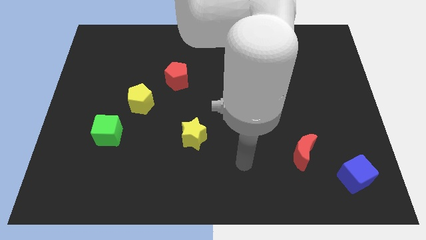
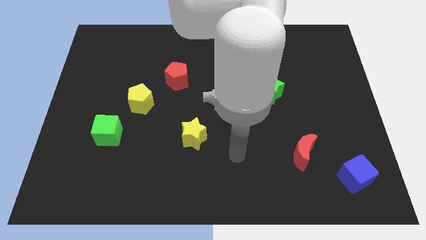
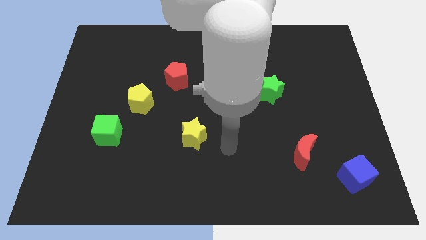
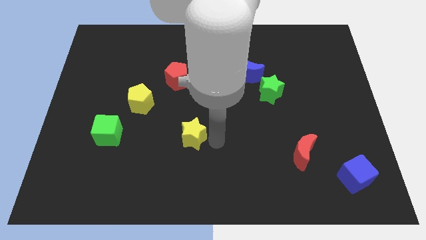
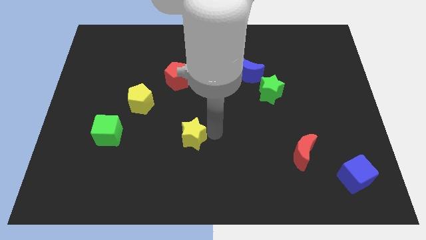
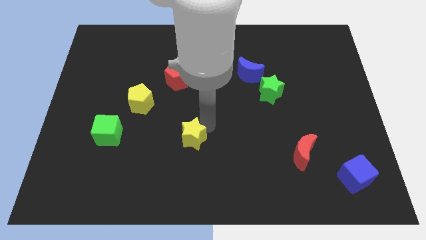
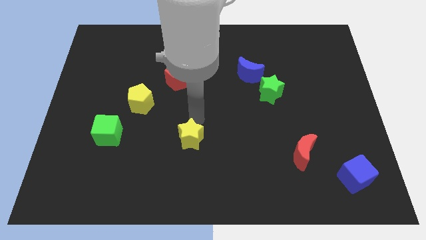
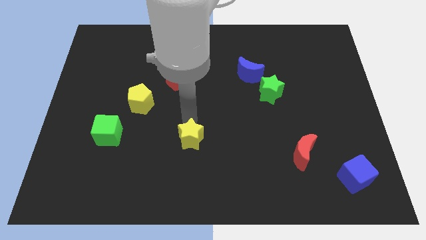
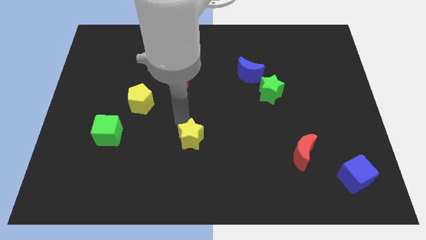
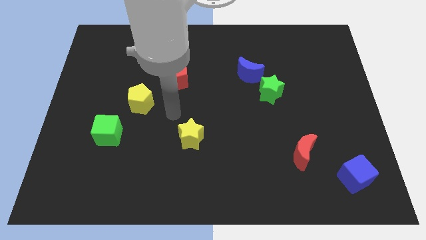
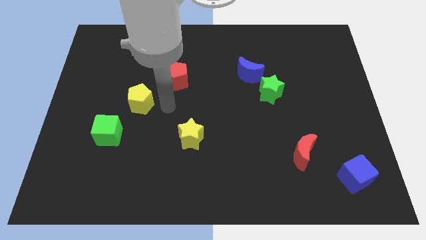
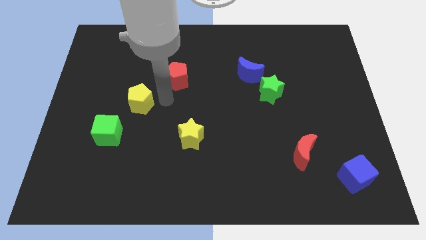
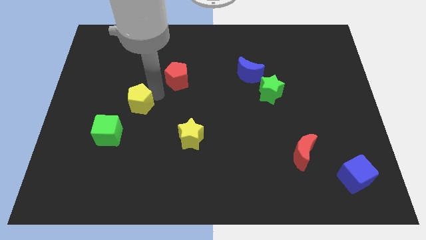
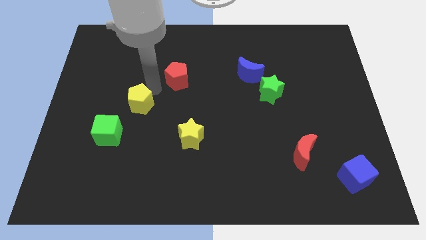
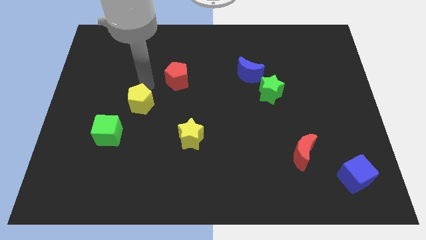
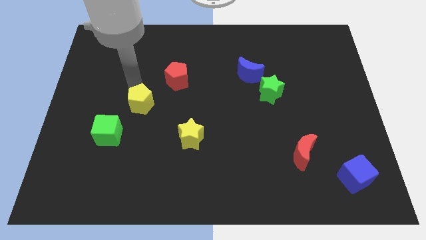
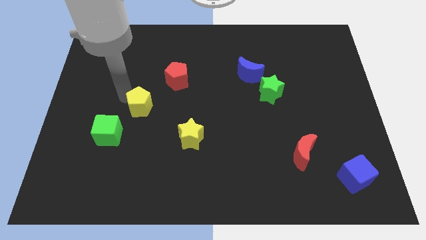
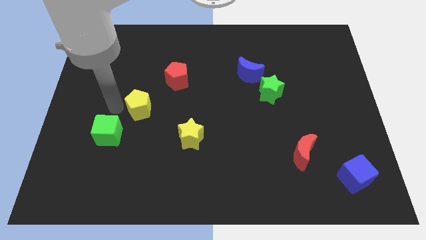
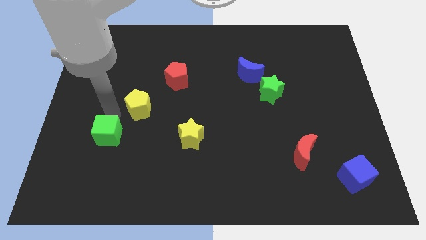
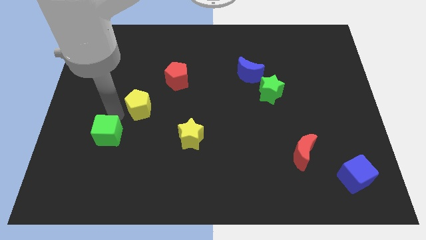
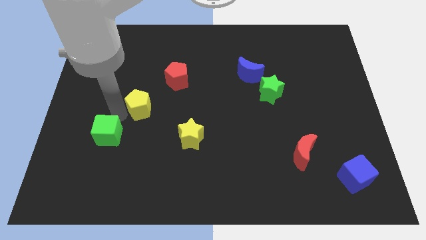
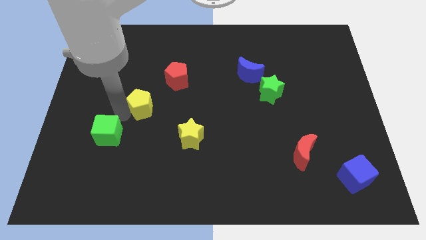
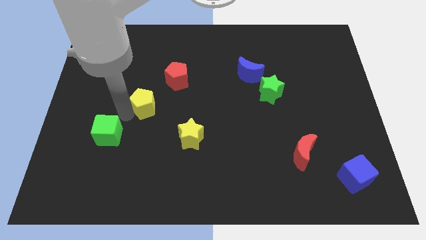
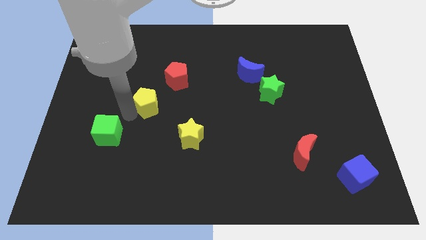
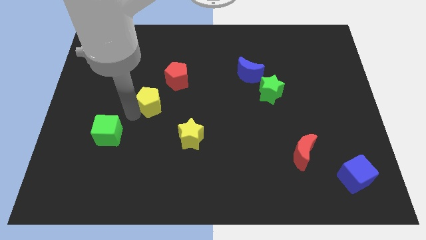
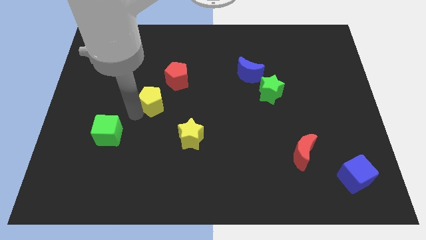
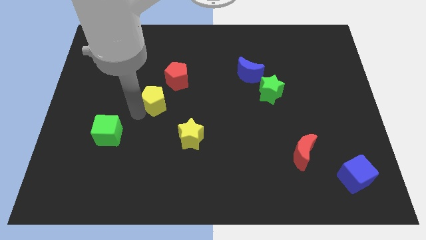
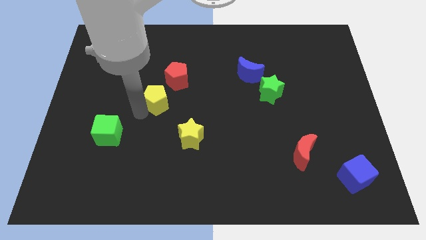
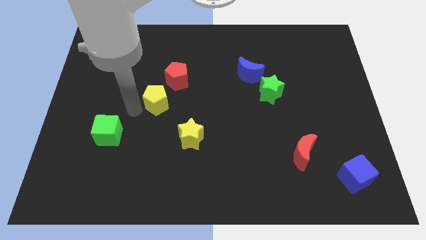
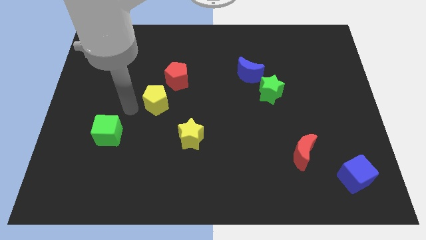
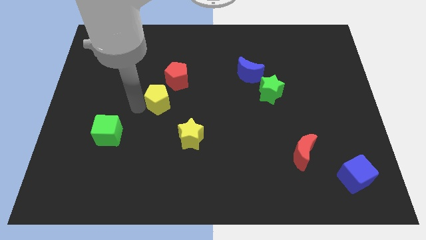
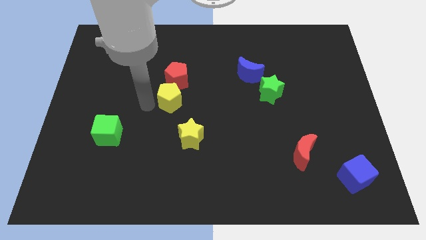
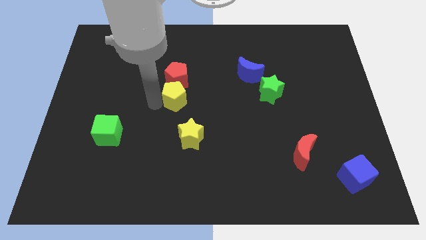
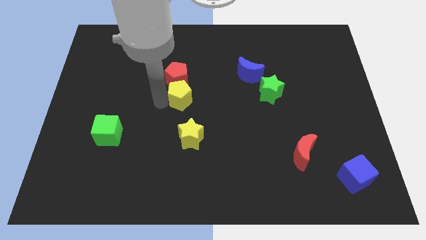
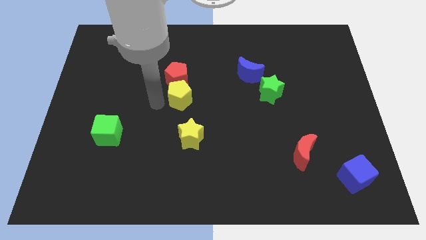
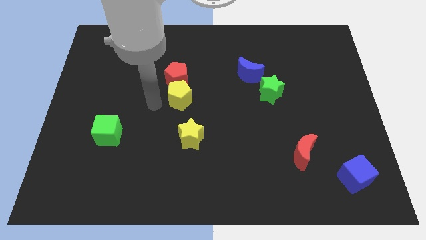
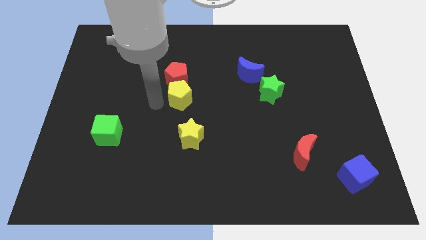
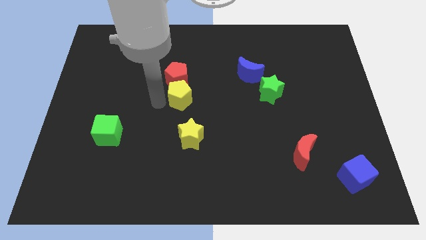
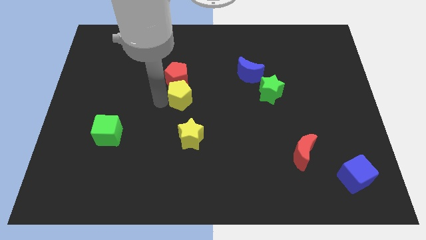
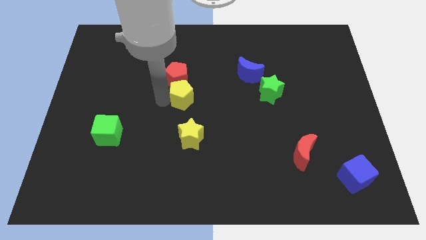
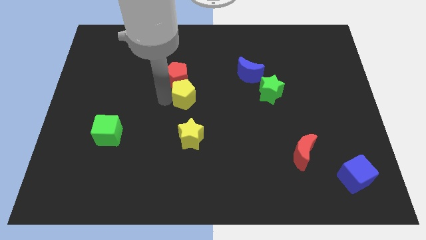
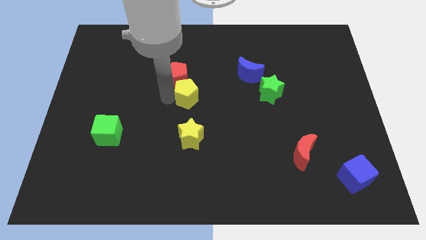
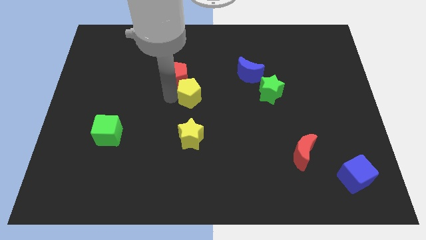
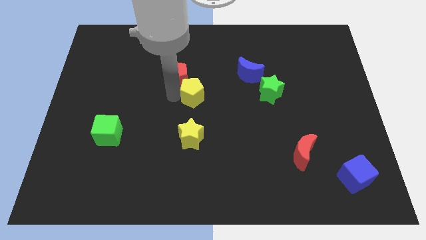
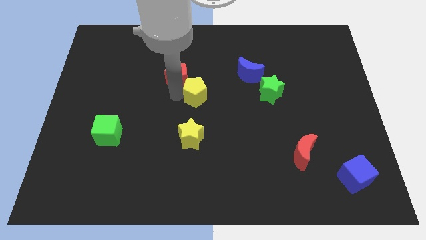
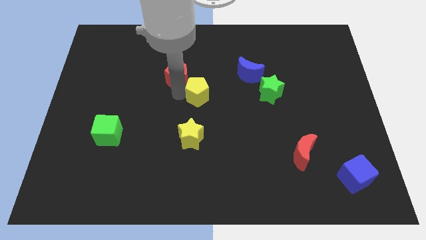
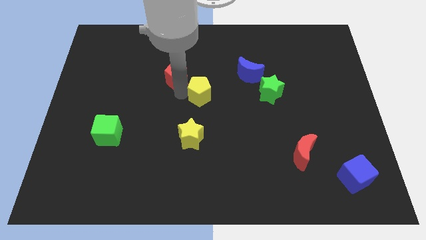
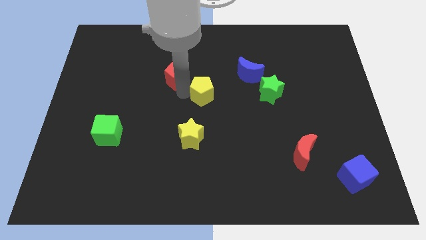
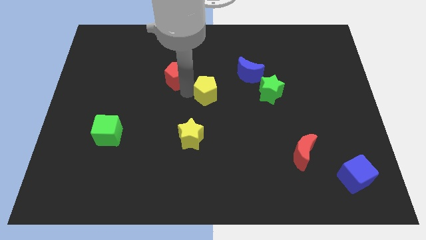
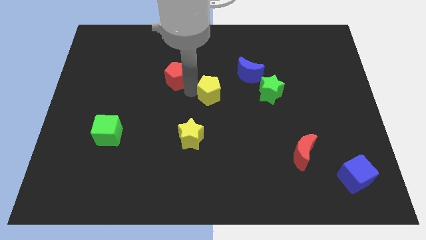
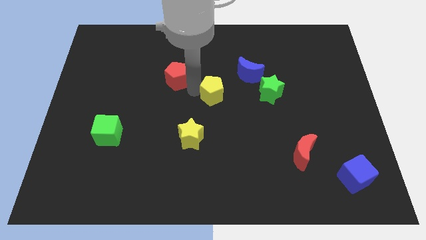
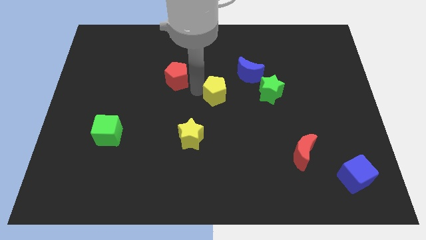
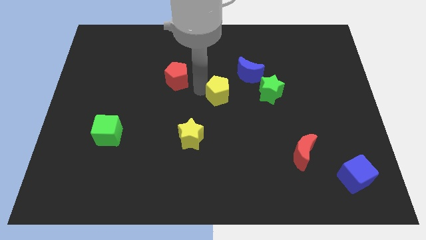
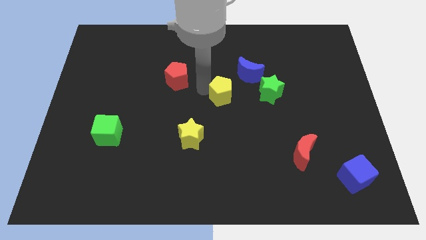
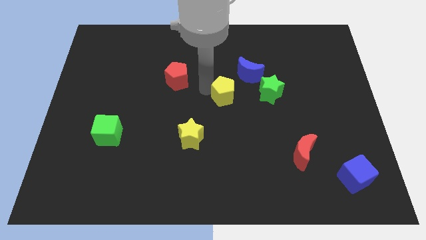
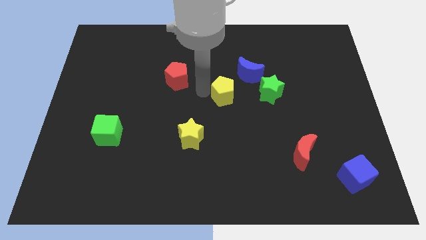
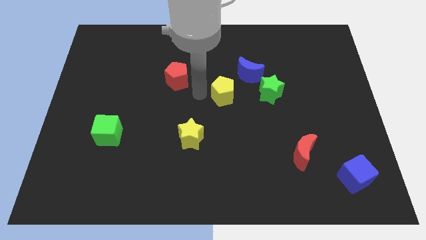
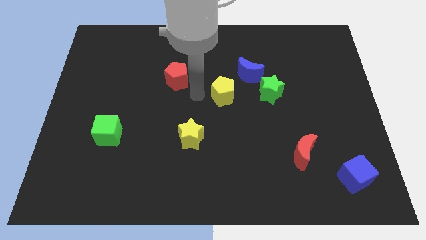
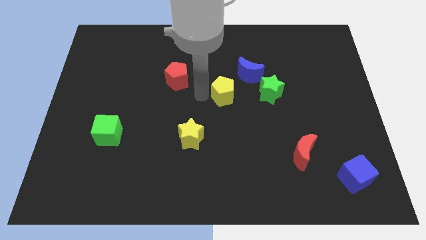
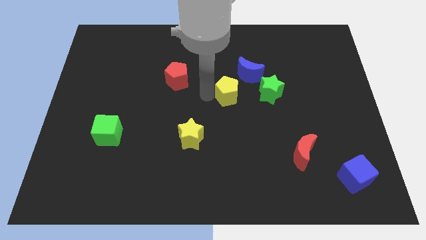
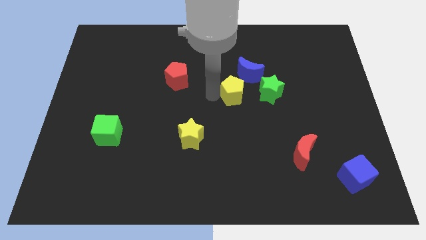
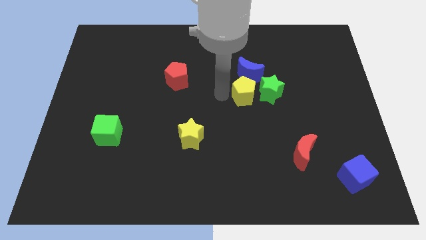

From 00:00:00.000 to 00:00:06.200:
push the yellow pentagon next to the green star

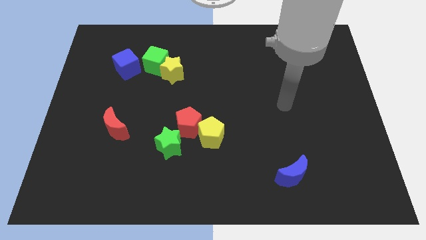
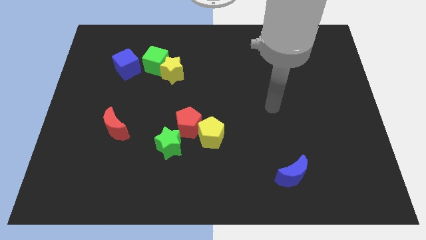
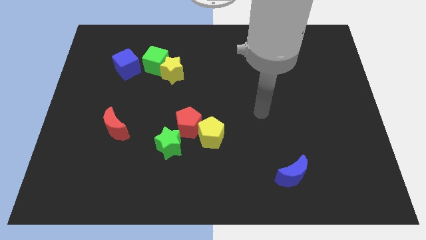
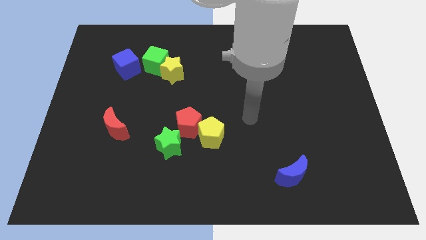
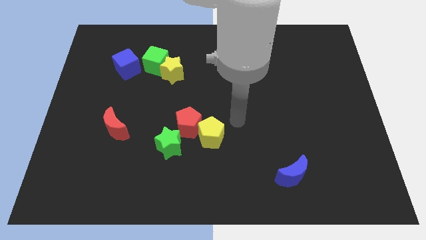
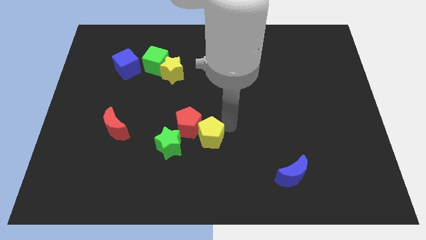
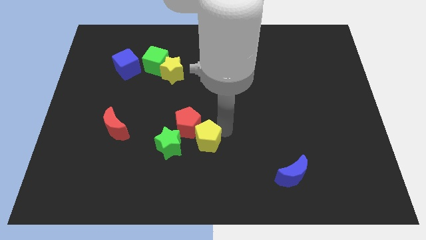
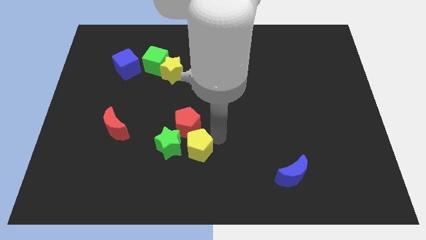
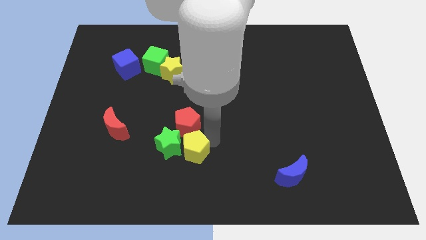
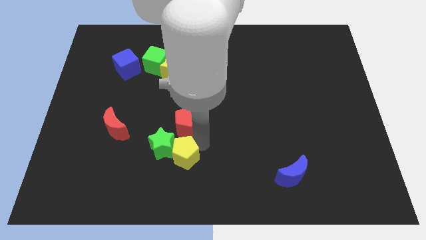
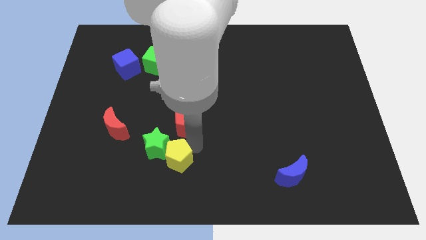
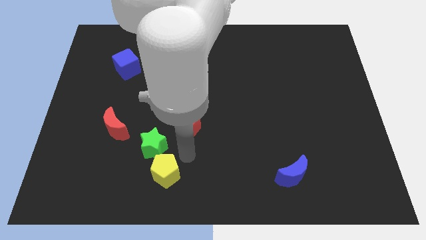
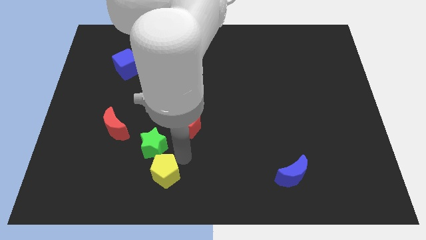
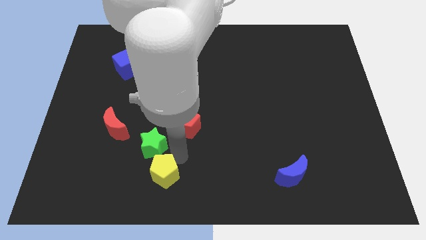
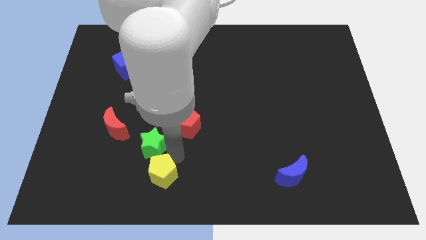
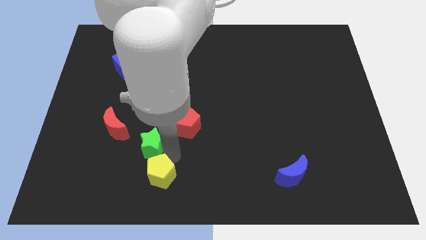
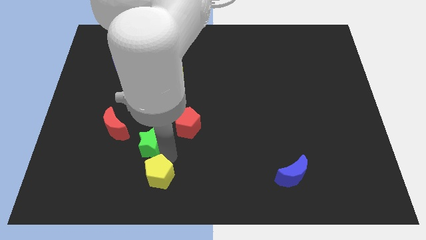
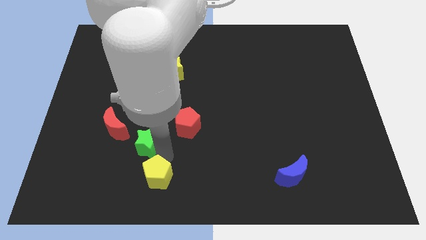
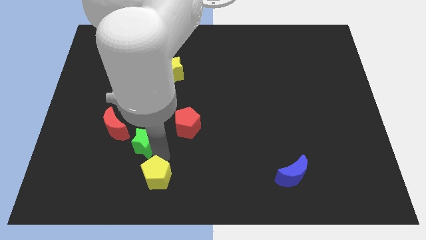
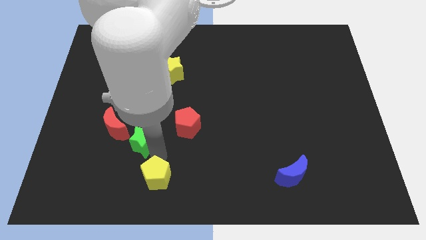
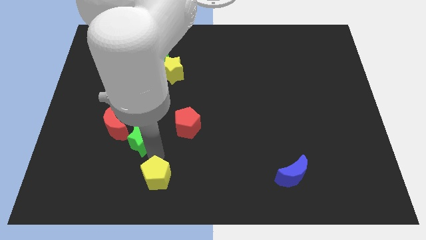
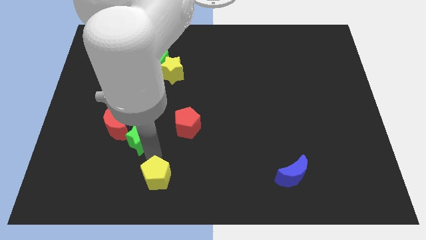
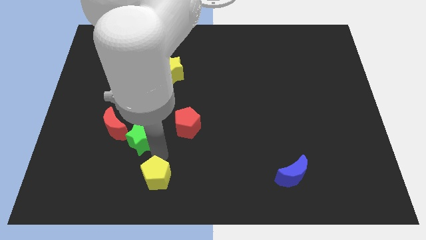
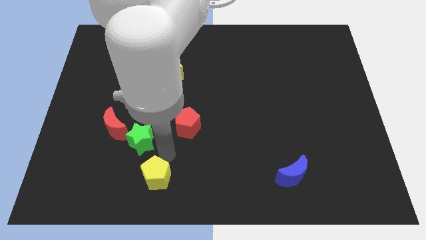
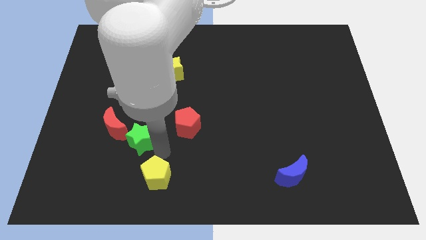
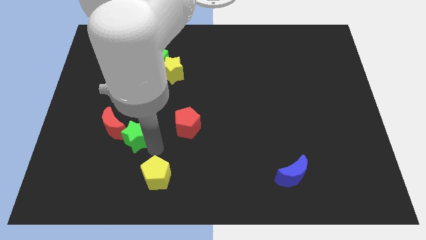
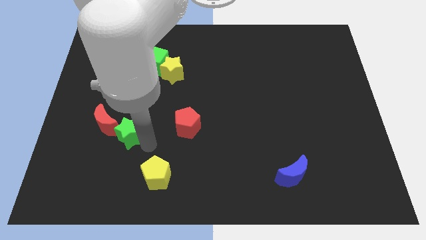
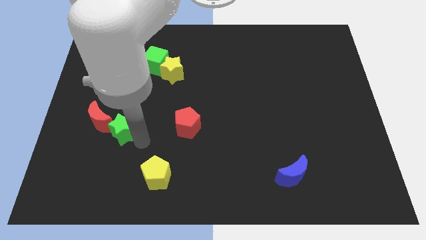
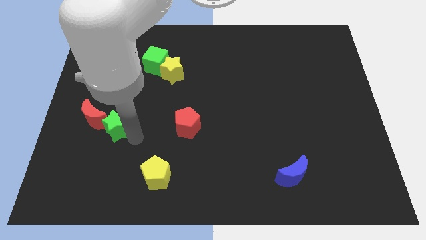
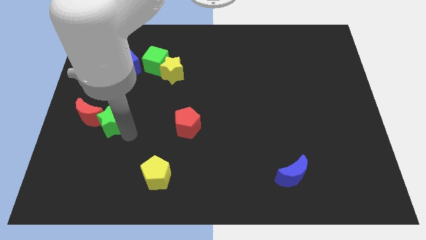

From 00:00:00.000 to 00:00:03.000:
move the green star close to the red moon
